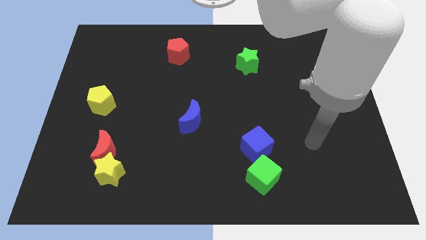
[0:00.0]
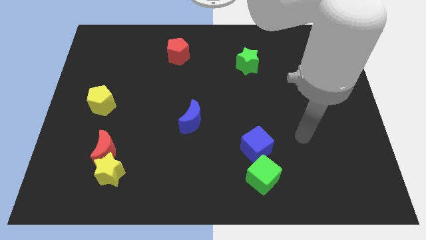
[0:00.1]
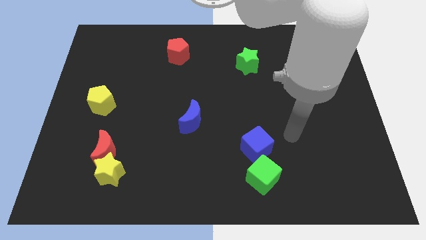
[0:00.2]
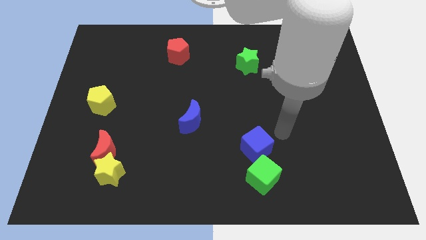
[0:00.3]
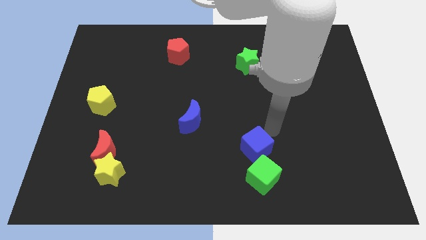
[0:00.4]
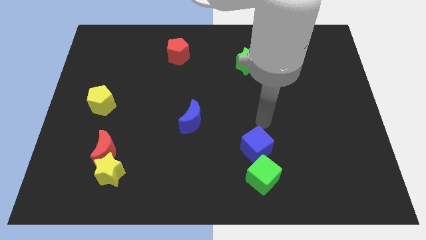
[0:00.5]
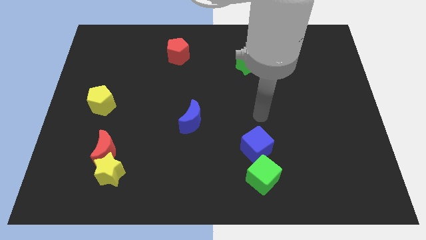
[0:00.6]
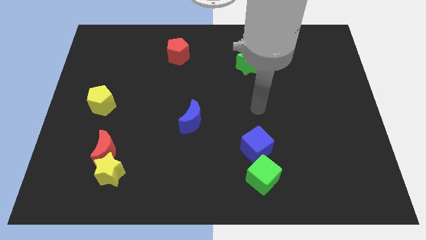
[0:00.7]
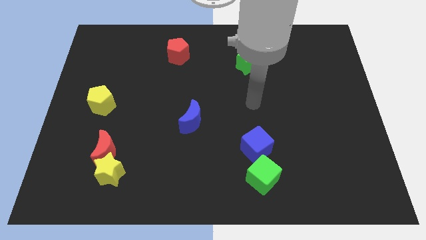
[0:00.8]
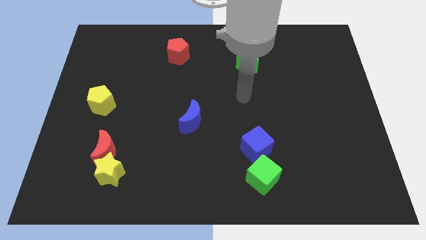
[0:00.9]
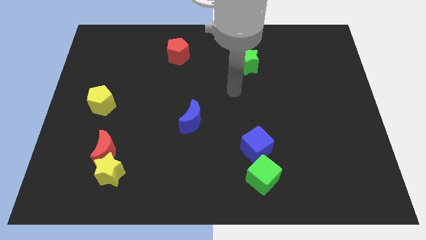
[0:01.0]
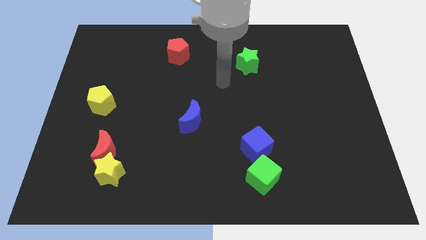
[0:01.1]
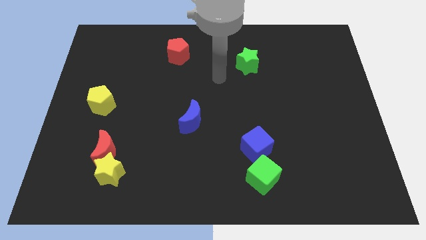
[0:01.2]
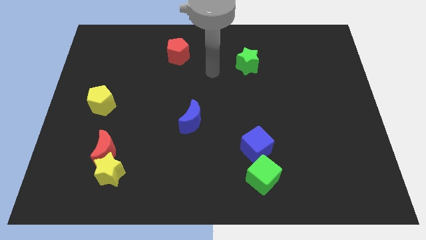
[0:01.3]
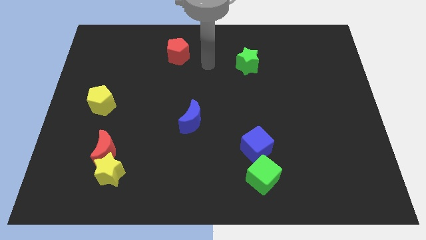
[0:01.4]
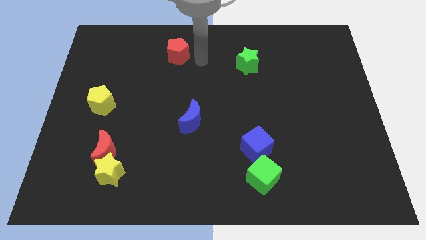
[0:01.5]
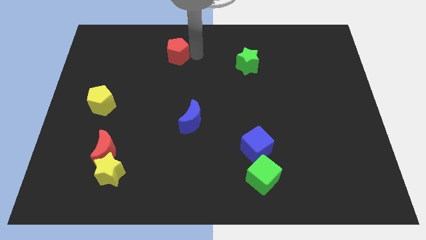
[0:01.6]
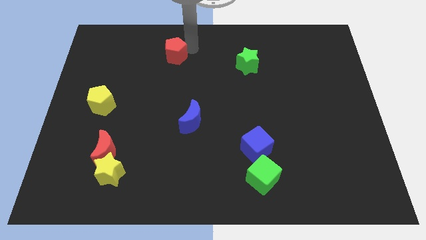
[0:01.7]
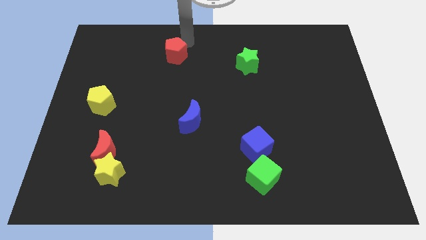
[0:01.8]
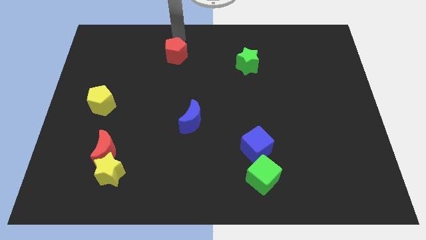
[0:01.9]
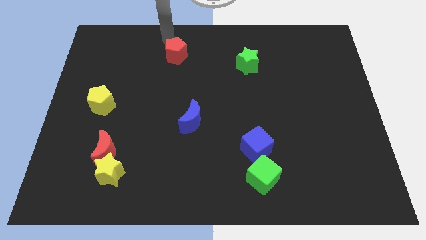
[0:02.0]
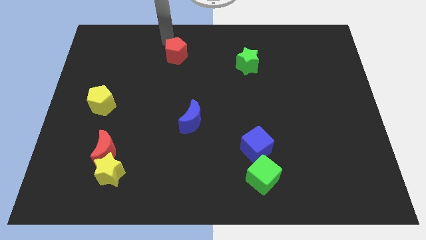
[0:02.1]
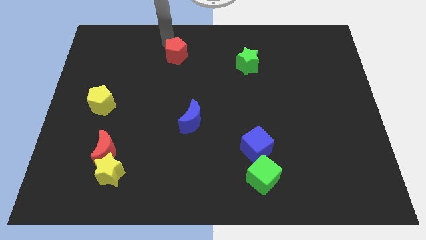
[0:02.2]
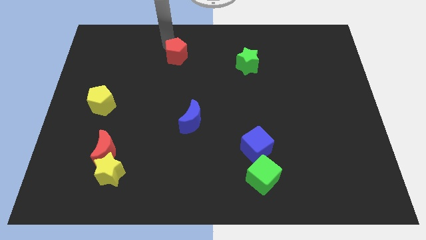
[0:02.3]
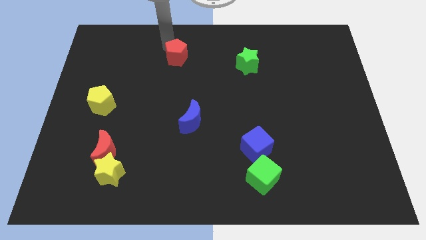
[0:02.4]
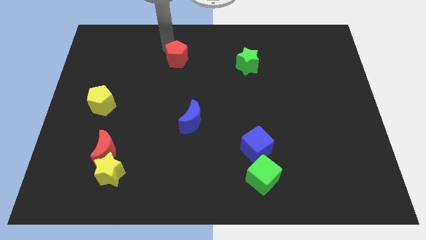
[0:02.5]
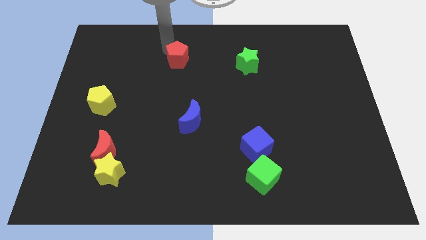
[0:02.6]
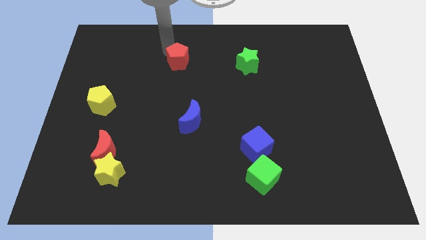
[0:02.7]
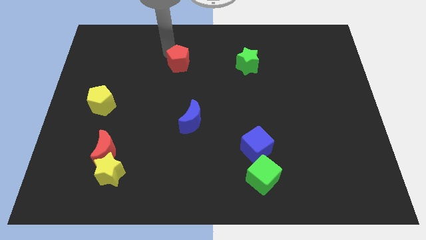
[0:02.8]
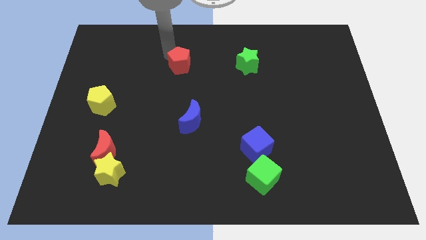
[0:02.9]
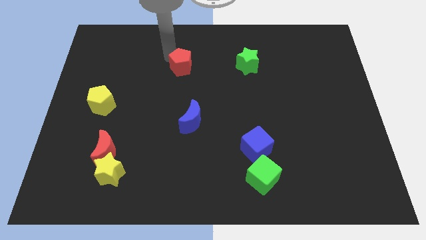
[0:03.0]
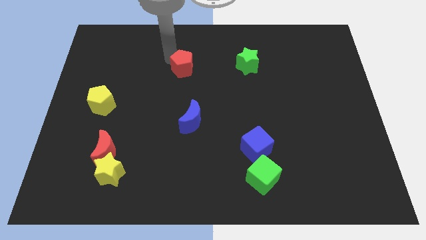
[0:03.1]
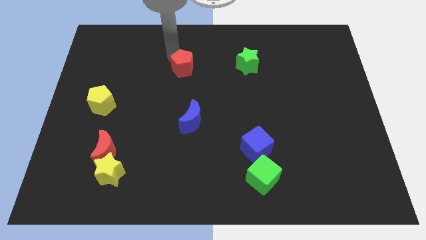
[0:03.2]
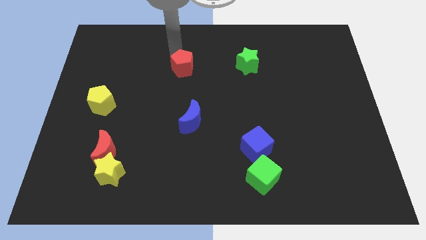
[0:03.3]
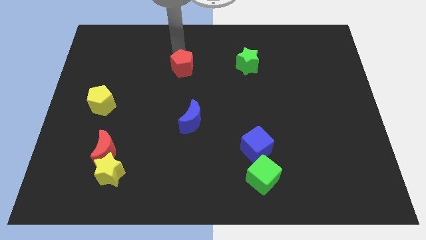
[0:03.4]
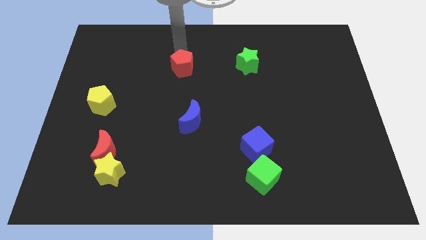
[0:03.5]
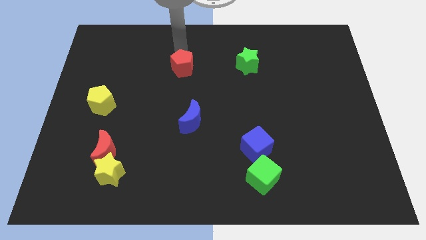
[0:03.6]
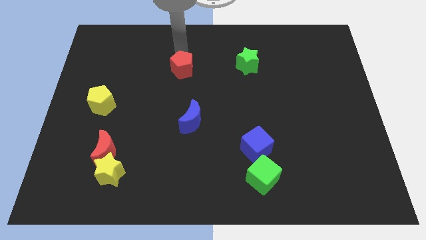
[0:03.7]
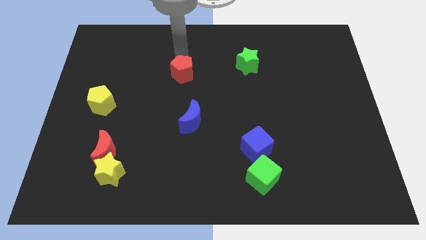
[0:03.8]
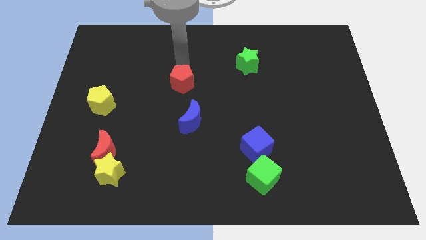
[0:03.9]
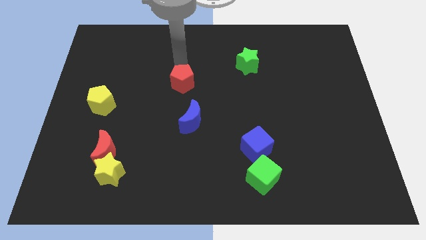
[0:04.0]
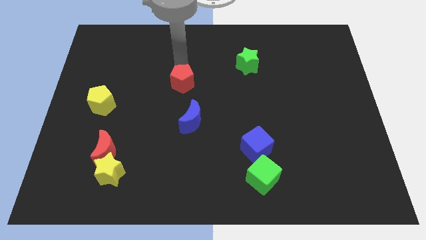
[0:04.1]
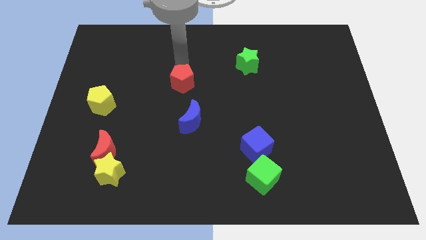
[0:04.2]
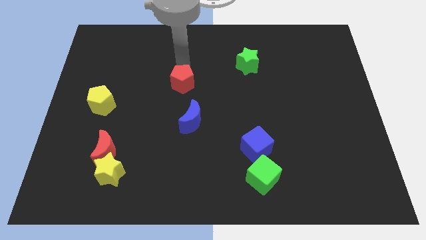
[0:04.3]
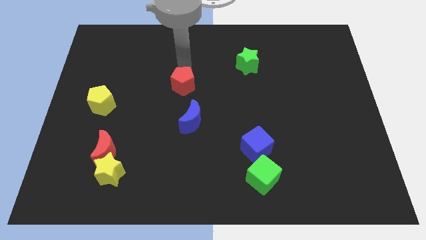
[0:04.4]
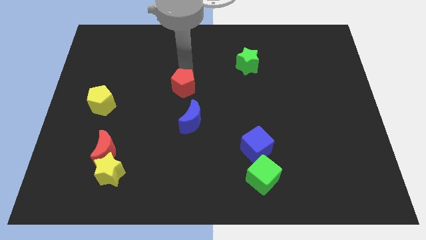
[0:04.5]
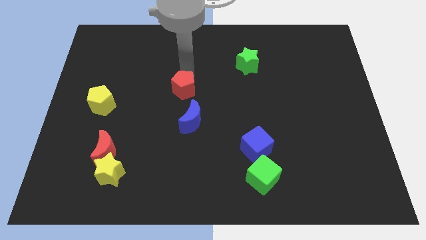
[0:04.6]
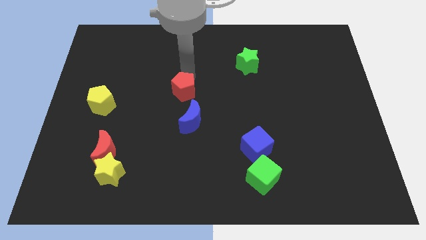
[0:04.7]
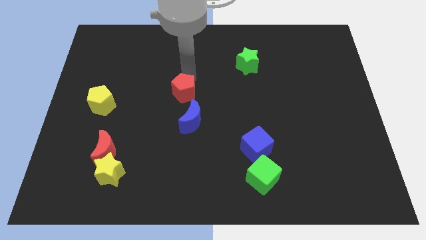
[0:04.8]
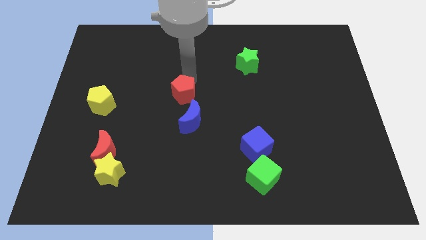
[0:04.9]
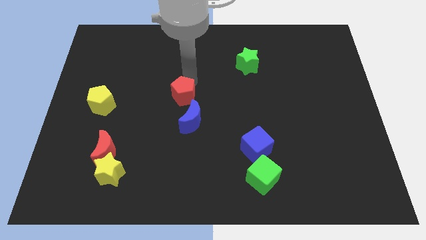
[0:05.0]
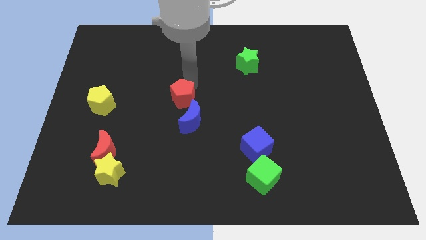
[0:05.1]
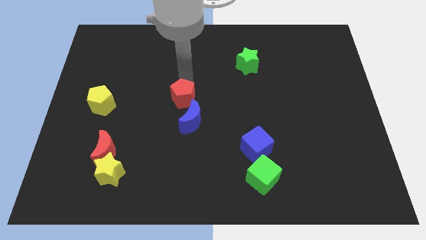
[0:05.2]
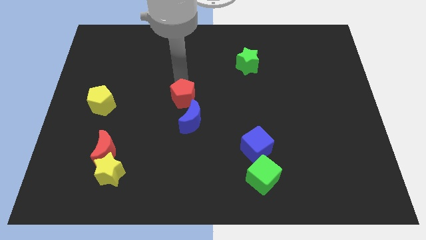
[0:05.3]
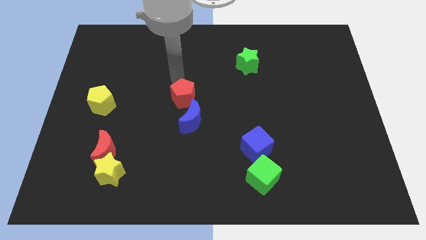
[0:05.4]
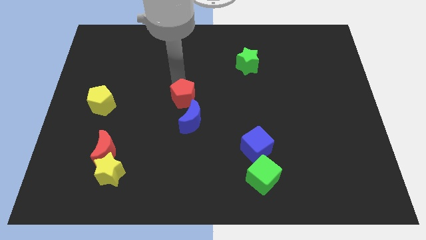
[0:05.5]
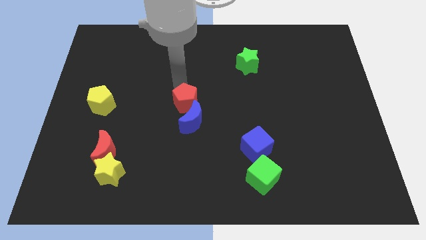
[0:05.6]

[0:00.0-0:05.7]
push the red pentagon close to the blue moon

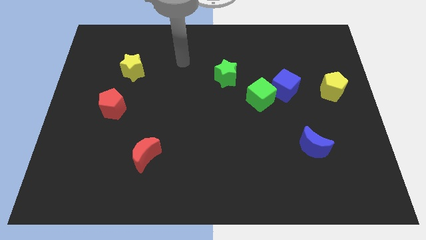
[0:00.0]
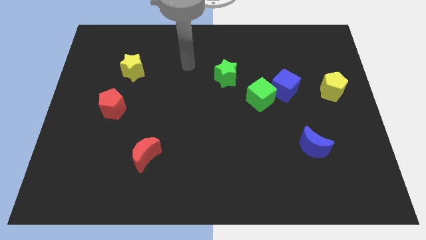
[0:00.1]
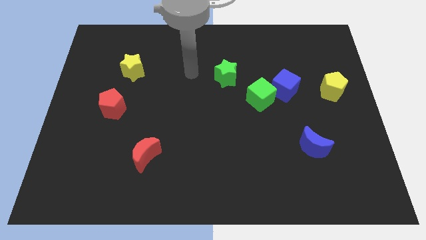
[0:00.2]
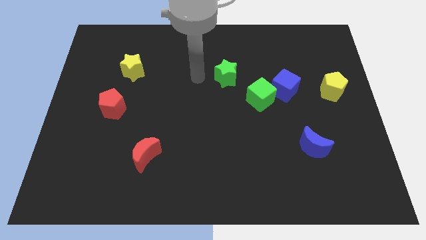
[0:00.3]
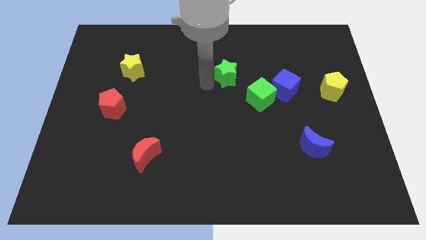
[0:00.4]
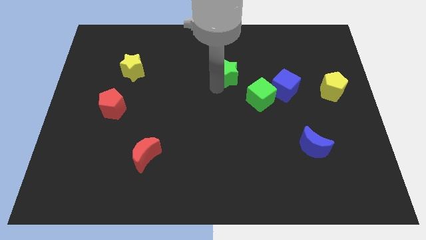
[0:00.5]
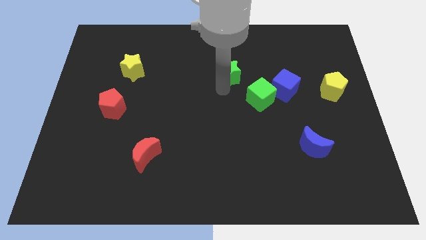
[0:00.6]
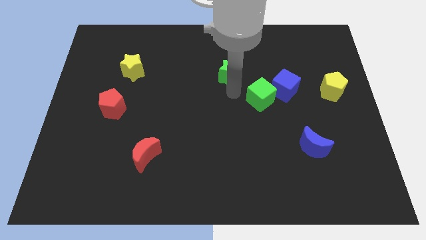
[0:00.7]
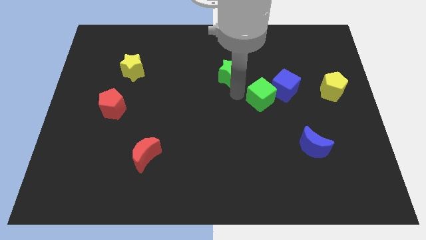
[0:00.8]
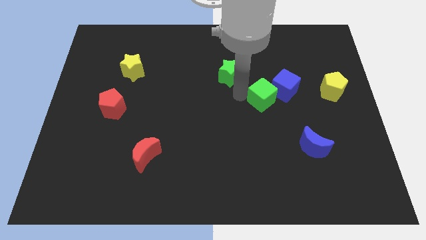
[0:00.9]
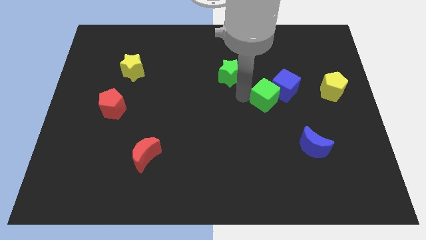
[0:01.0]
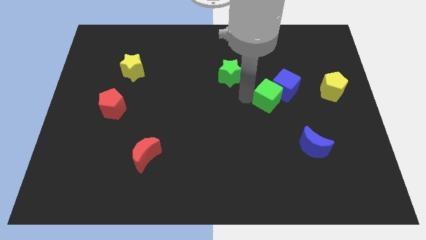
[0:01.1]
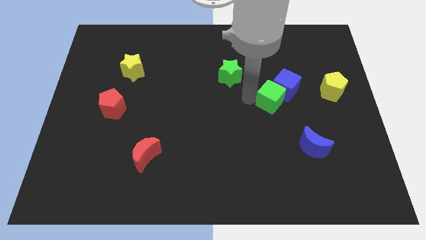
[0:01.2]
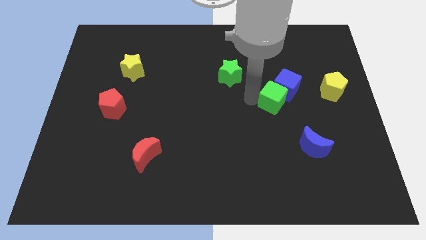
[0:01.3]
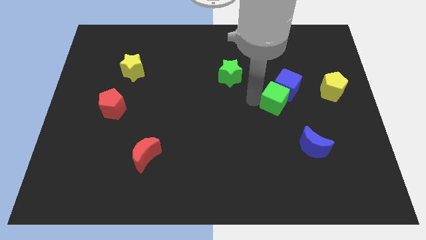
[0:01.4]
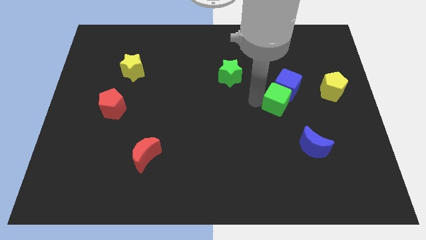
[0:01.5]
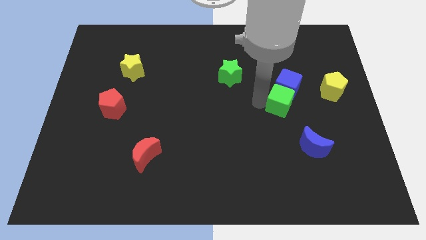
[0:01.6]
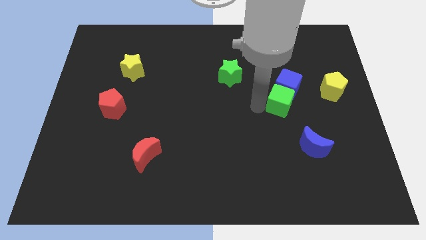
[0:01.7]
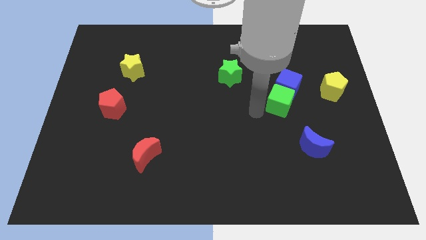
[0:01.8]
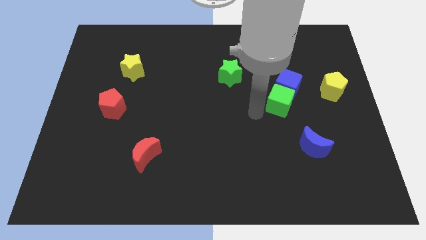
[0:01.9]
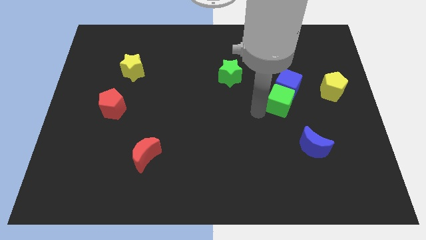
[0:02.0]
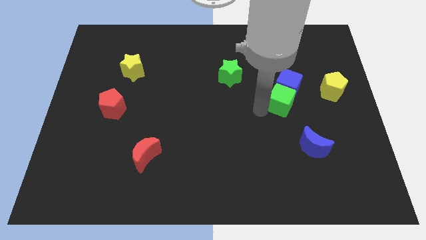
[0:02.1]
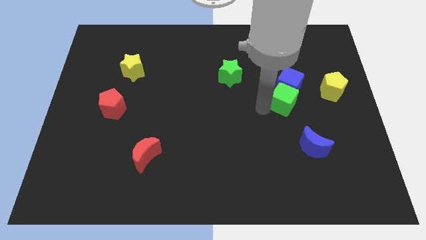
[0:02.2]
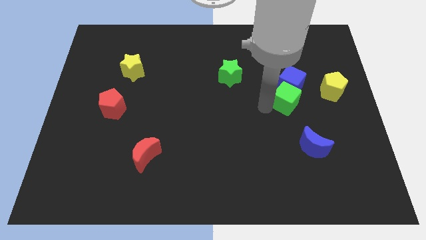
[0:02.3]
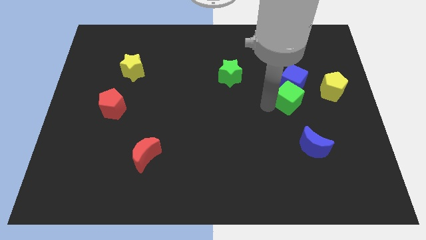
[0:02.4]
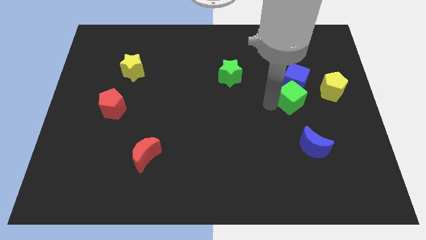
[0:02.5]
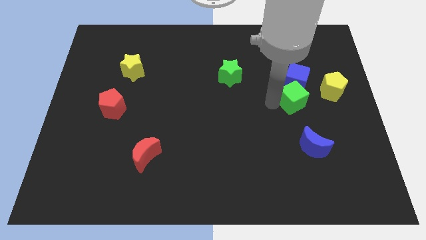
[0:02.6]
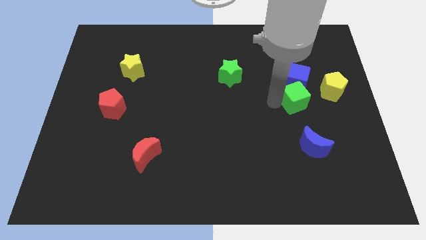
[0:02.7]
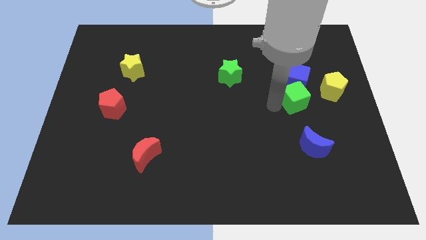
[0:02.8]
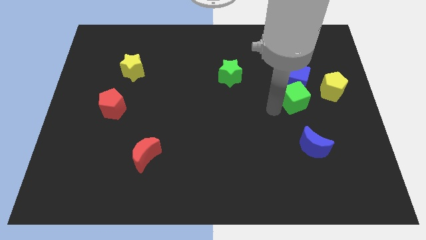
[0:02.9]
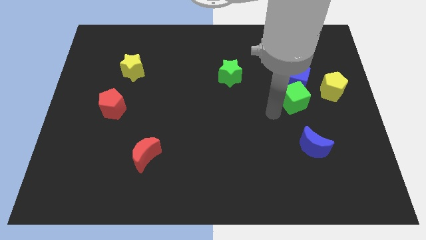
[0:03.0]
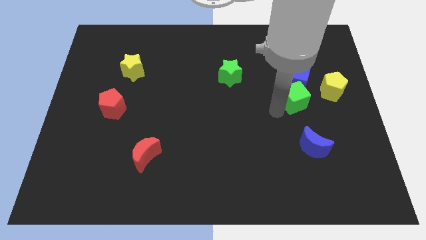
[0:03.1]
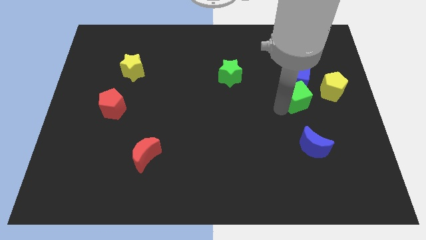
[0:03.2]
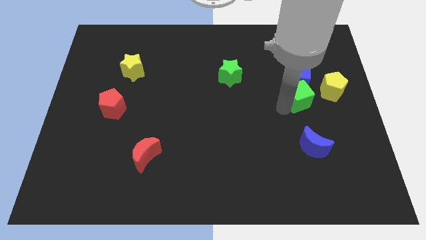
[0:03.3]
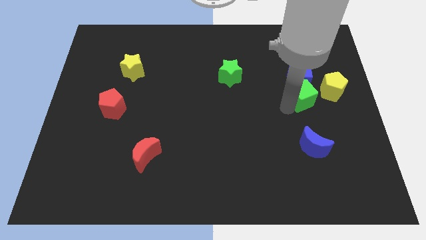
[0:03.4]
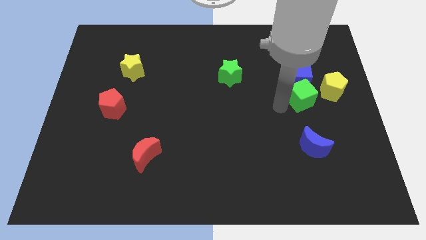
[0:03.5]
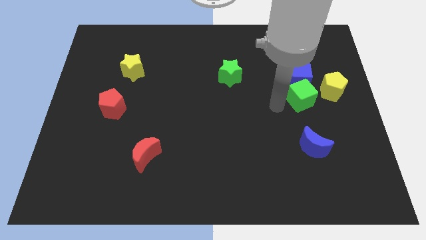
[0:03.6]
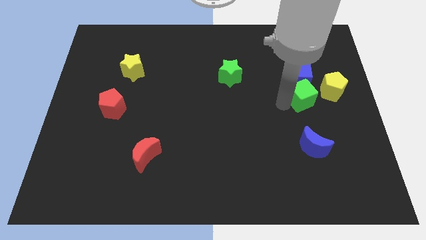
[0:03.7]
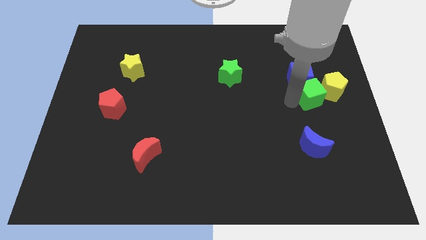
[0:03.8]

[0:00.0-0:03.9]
slide the green cube next to the yellow pentagon
